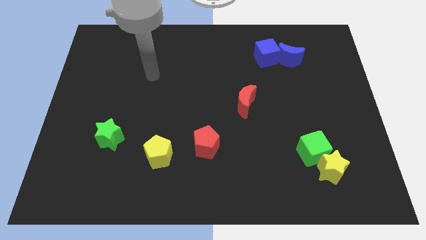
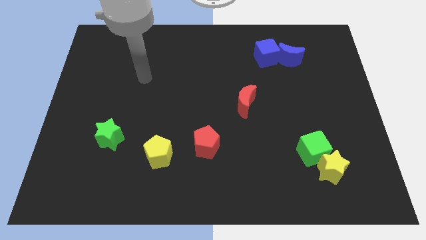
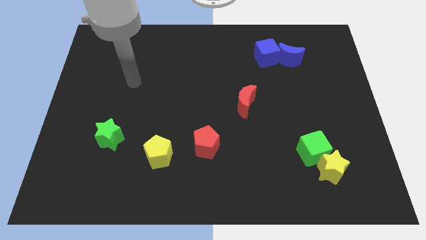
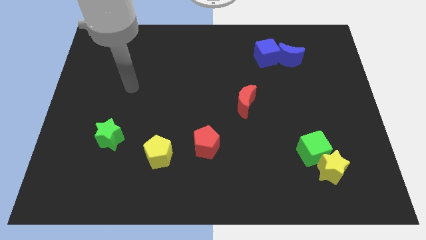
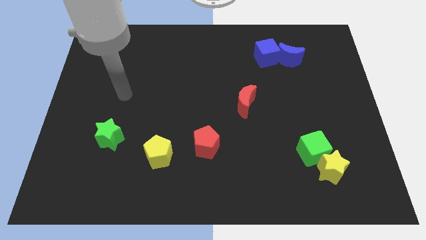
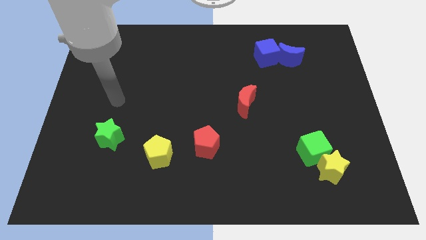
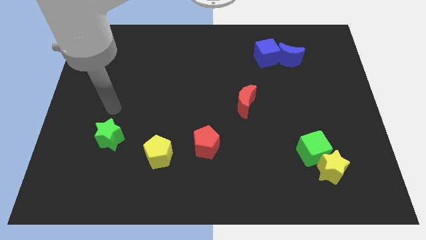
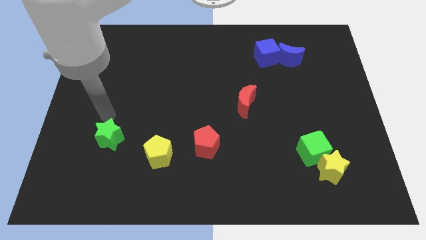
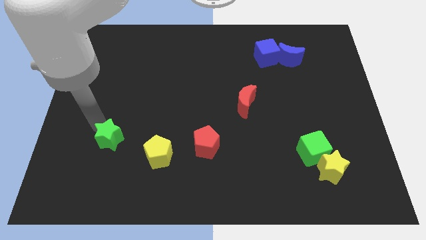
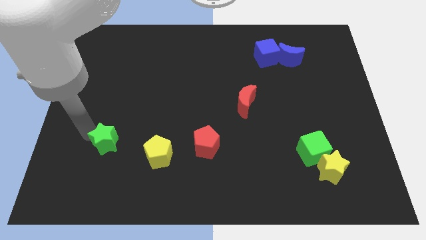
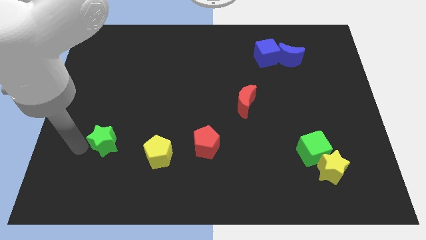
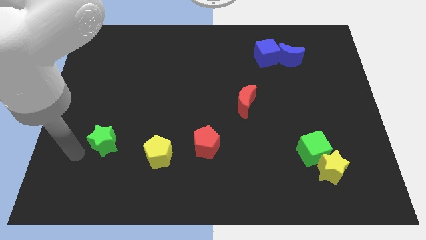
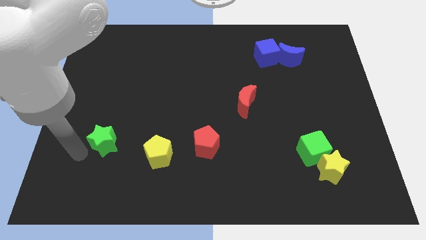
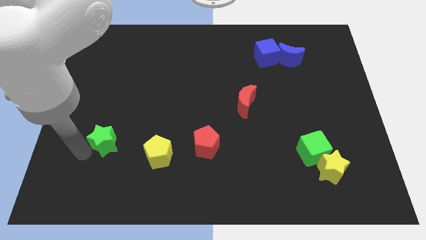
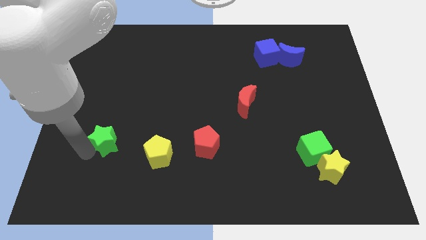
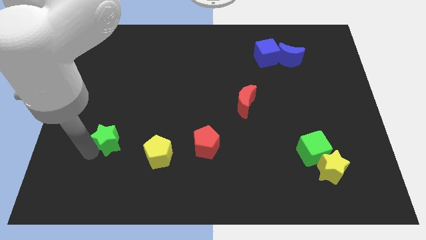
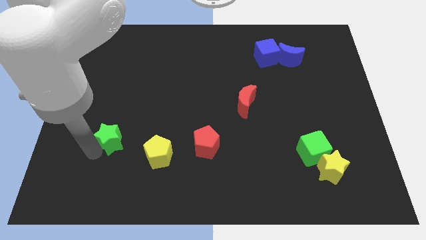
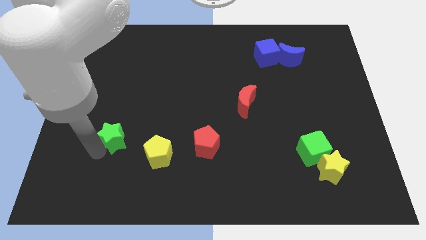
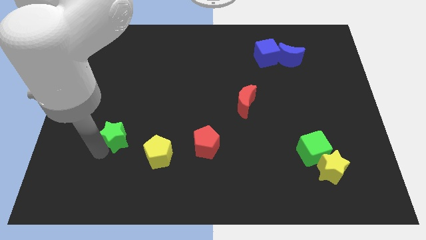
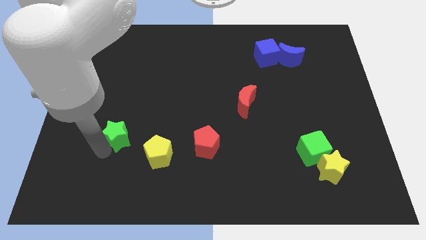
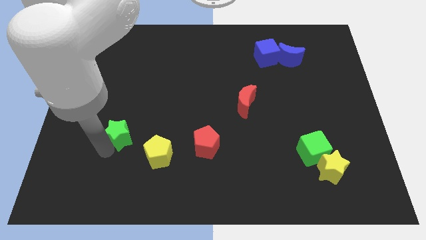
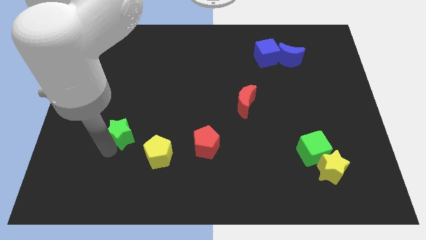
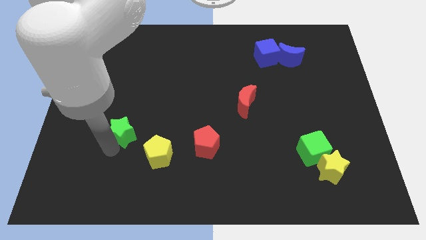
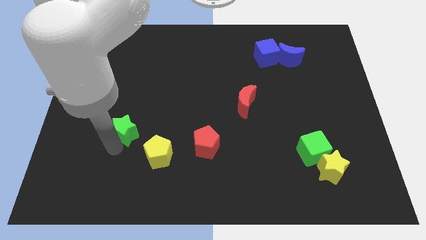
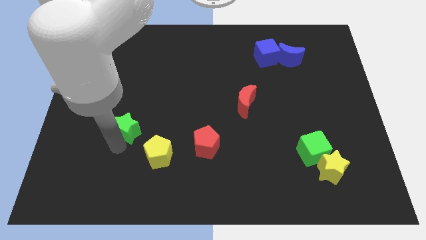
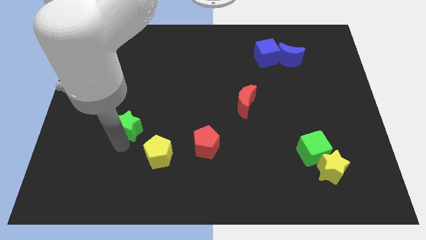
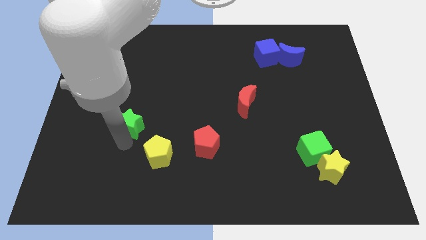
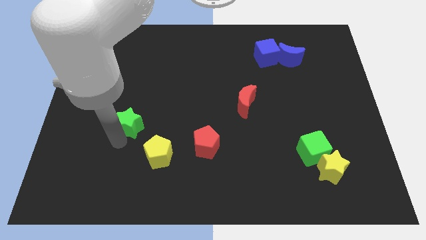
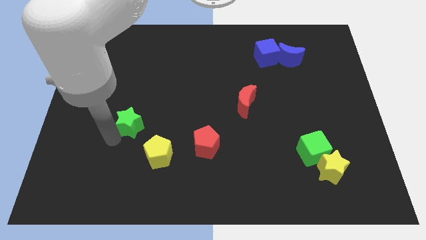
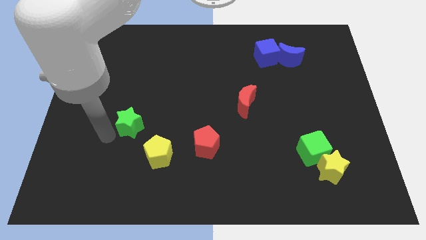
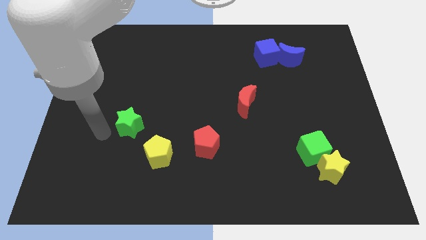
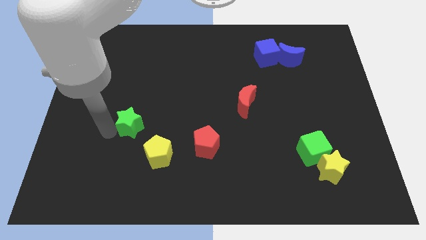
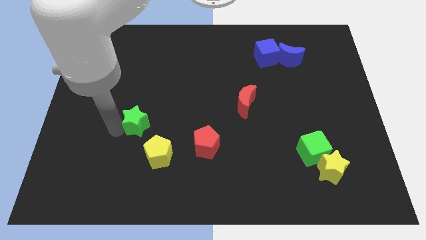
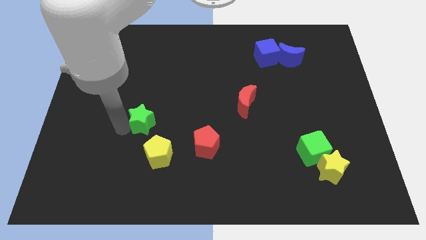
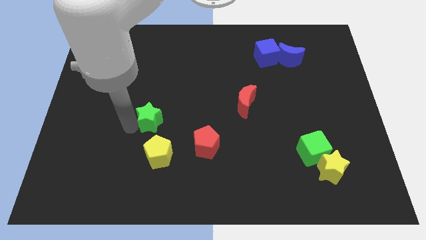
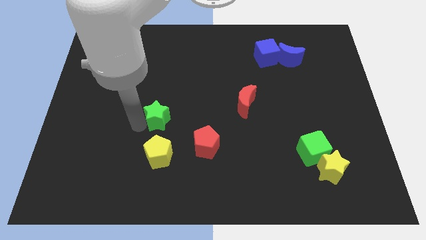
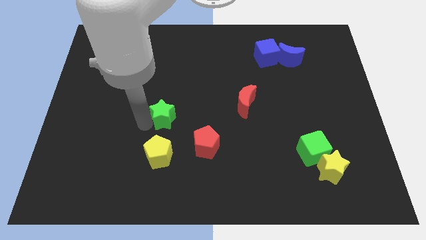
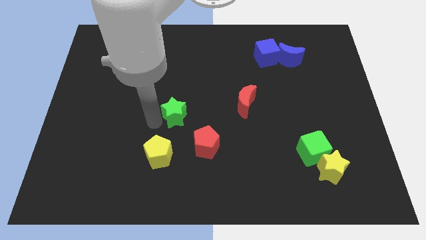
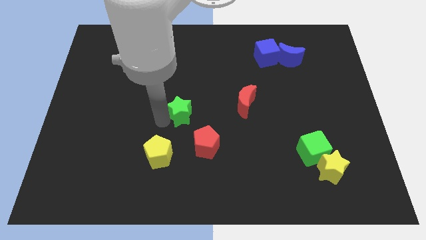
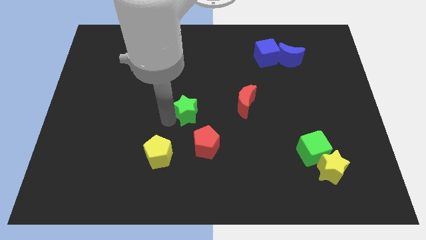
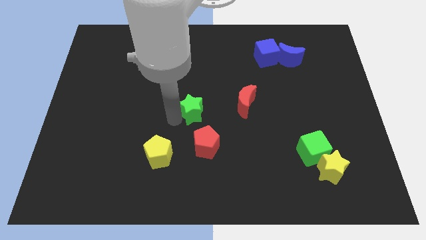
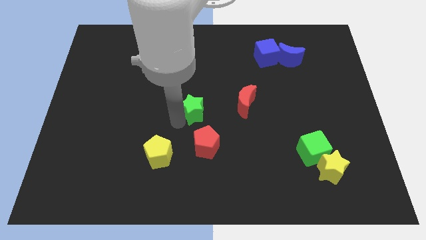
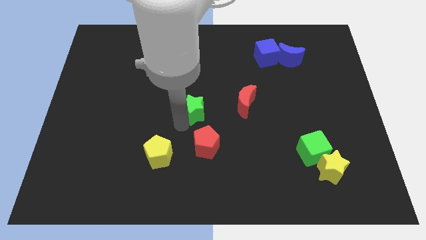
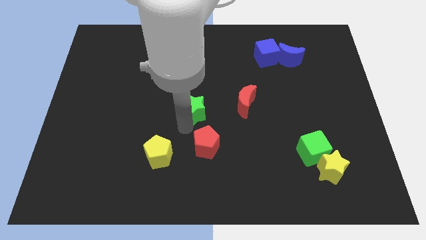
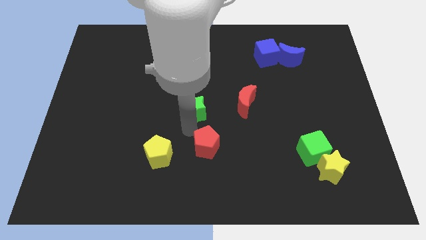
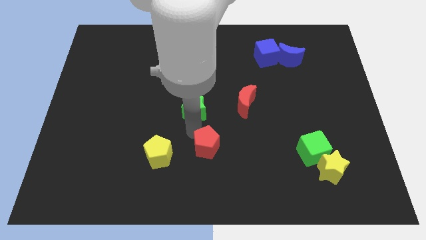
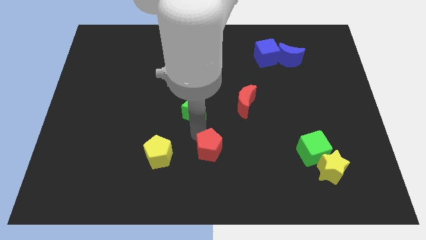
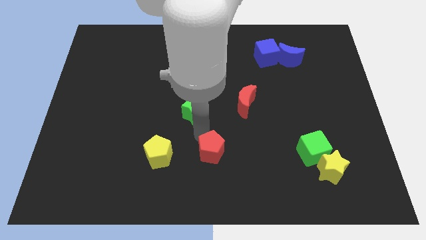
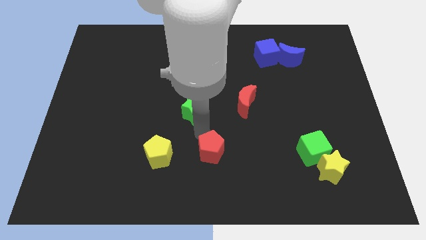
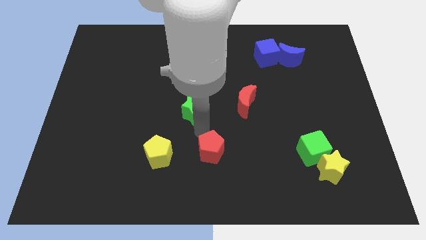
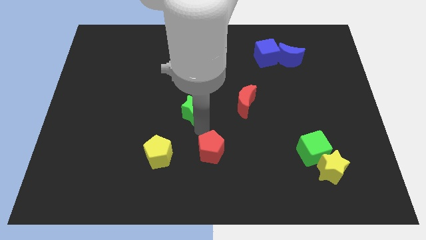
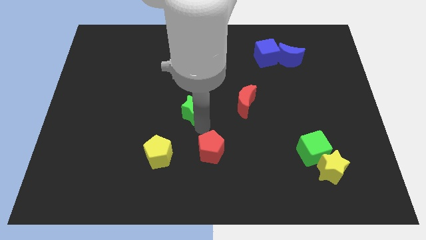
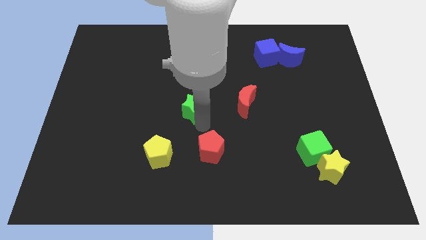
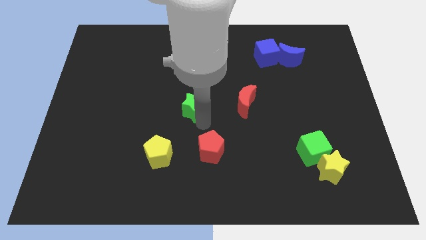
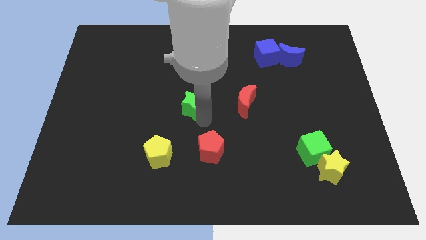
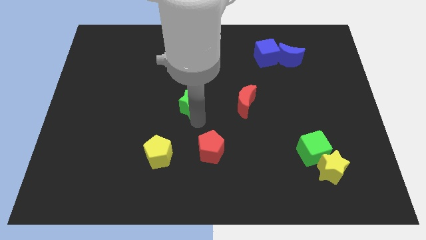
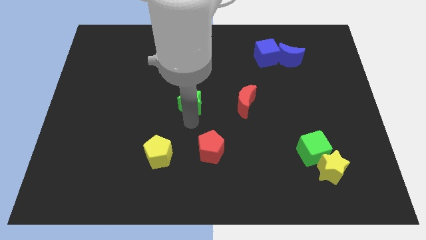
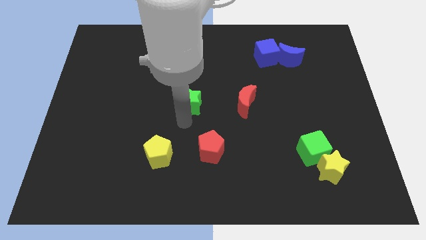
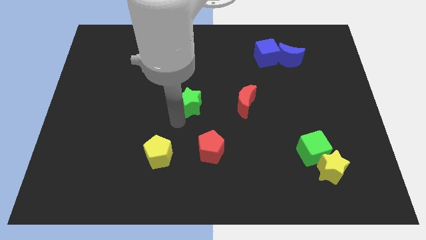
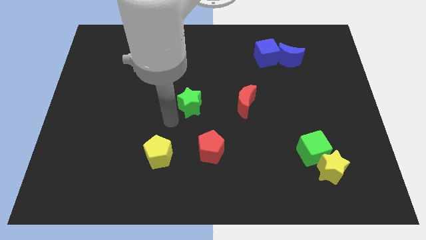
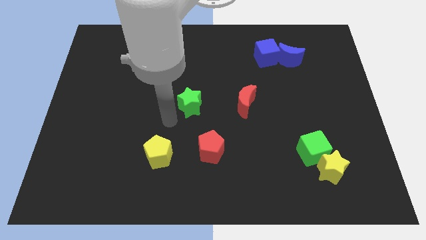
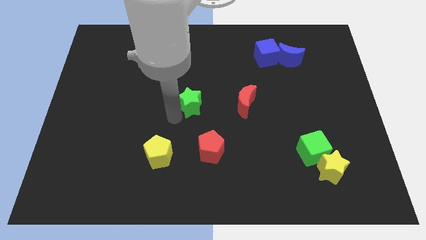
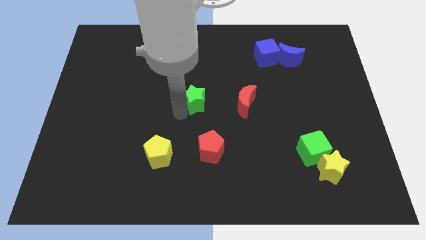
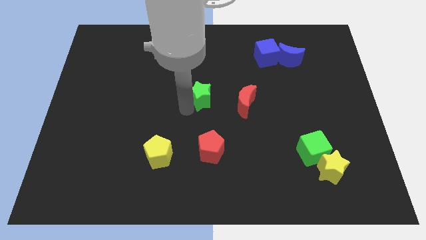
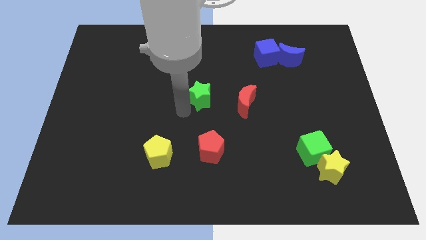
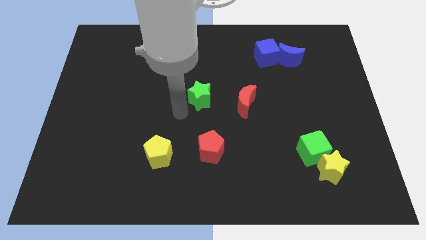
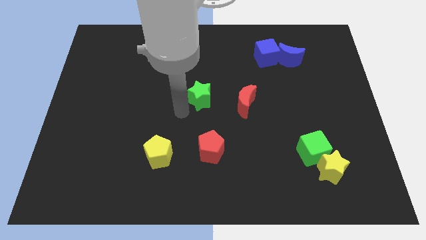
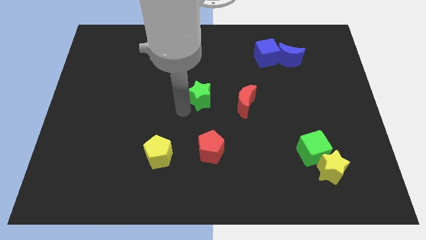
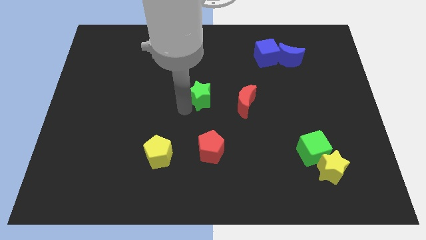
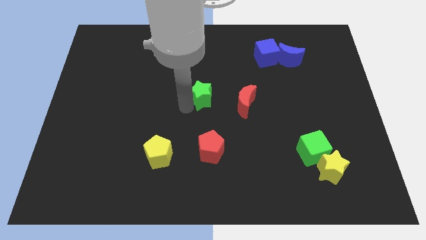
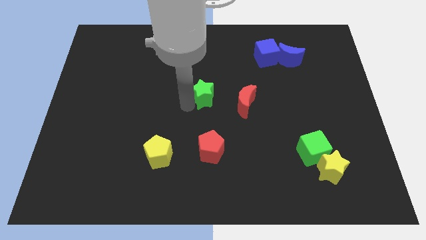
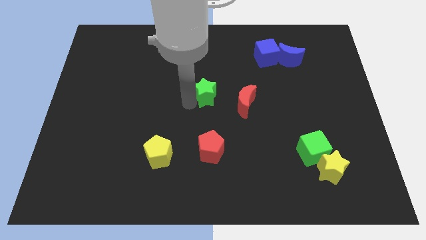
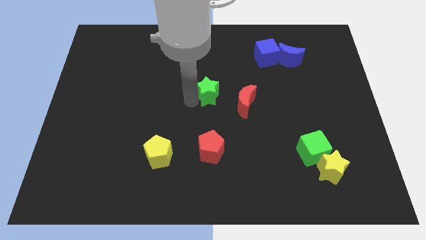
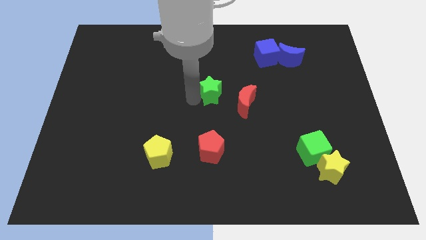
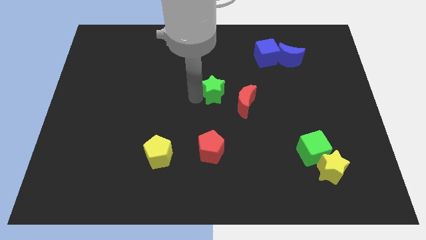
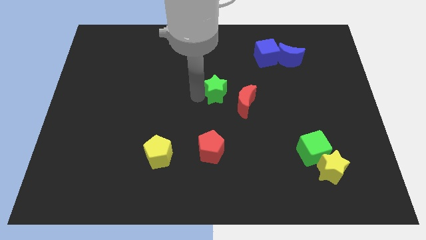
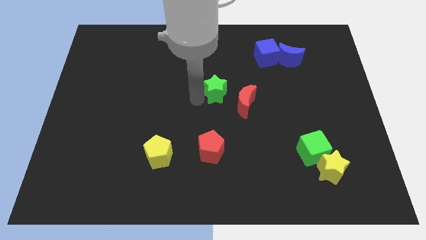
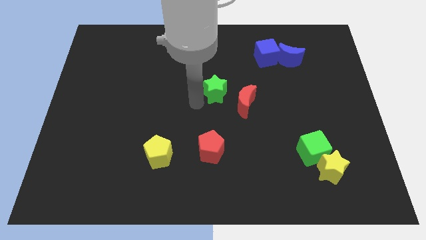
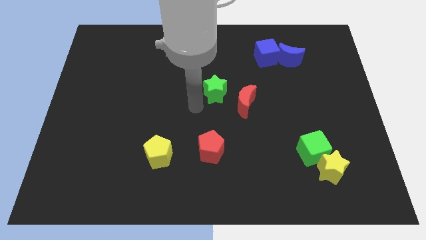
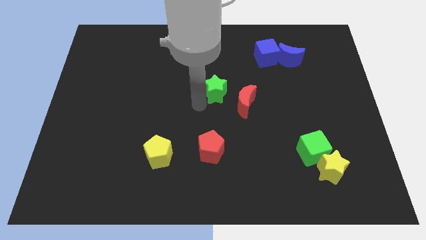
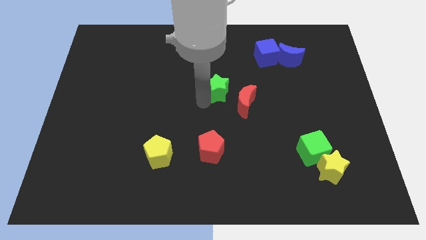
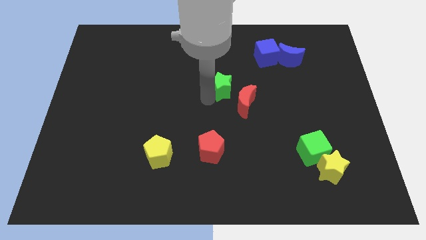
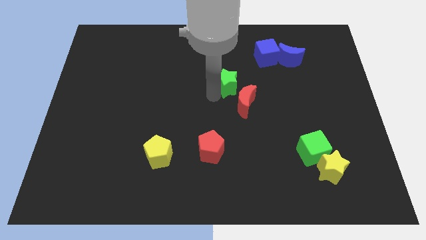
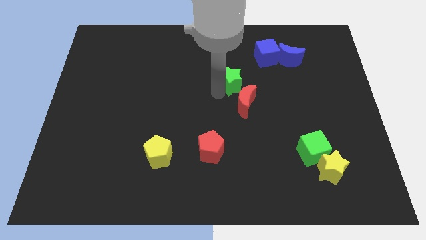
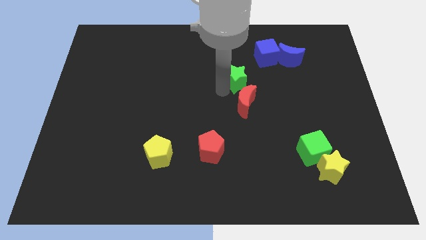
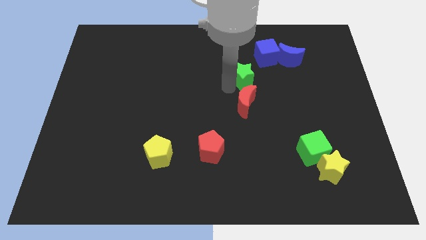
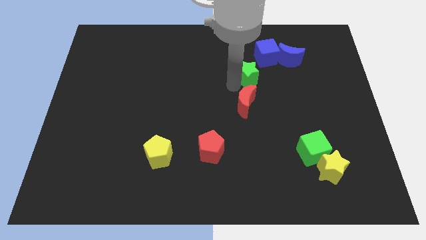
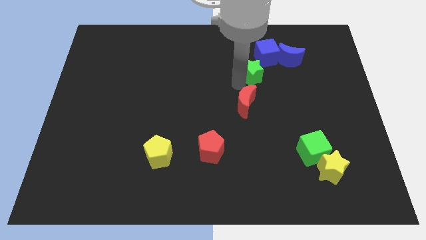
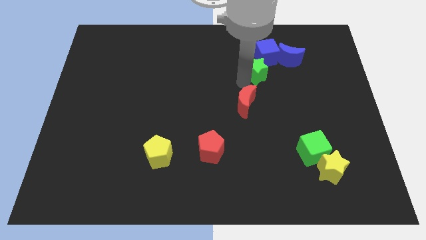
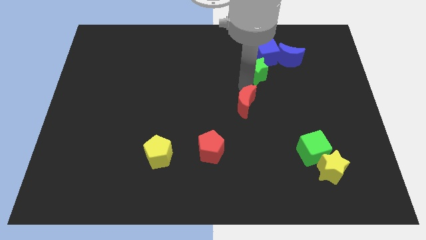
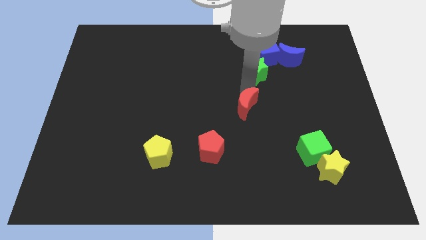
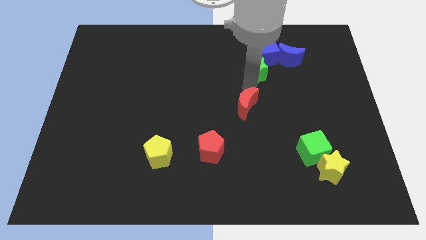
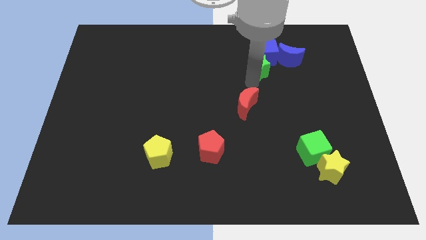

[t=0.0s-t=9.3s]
push the green star close to the blue cube
